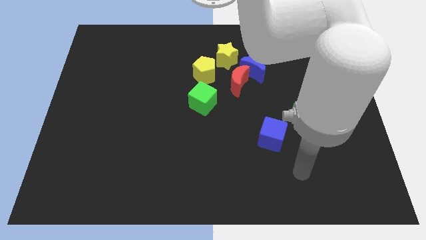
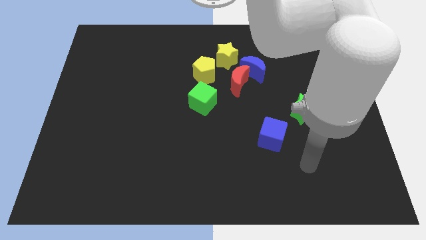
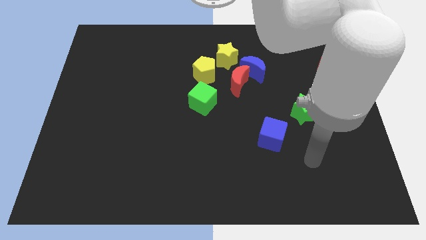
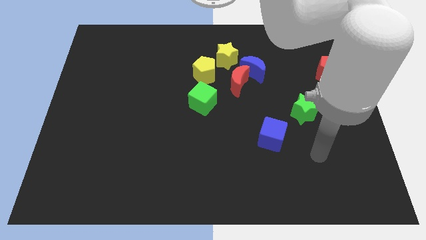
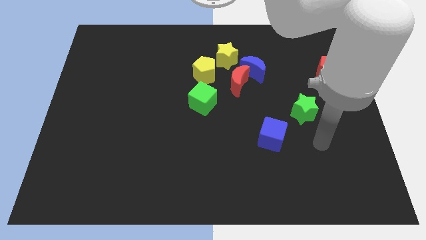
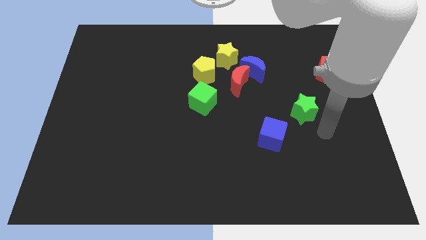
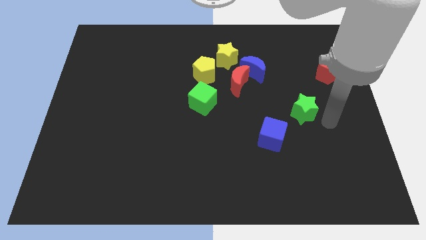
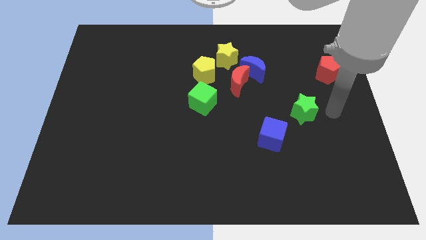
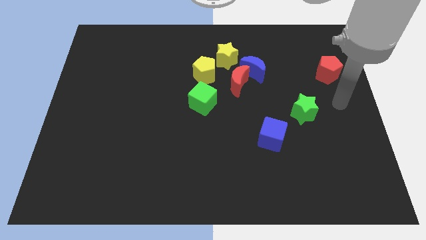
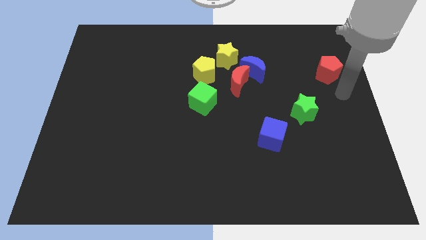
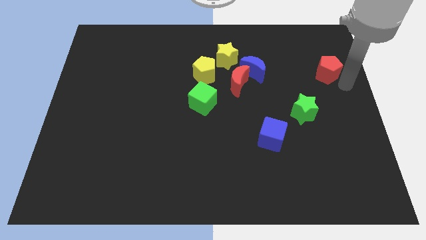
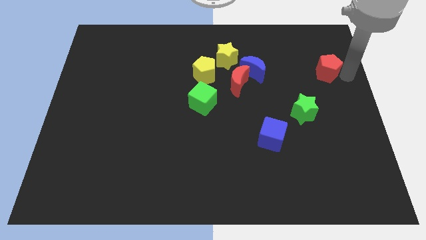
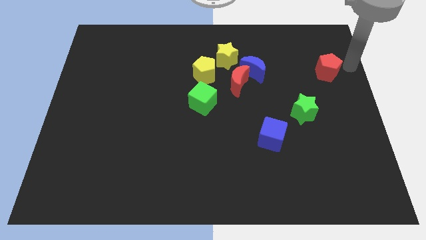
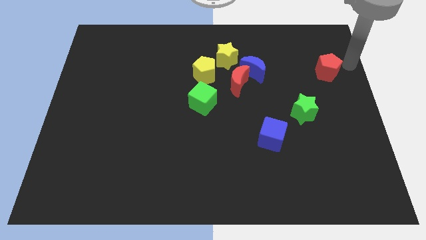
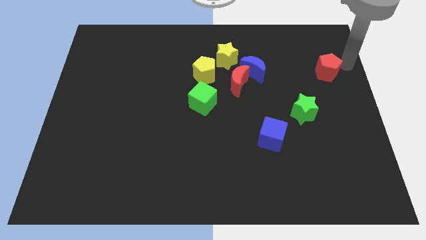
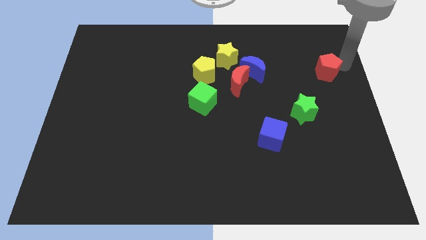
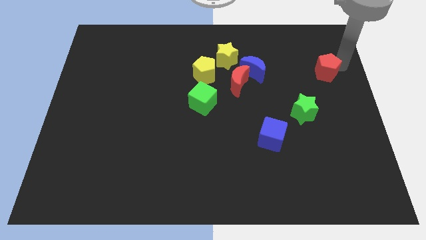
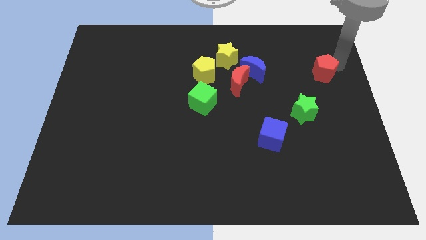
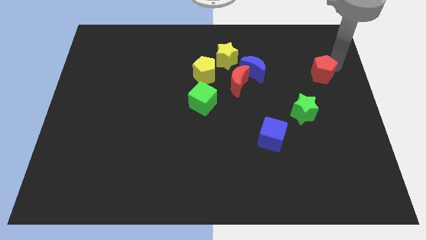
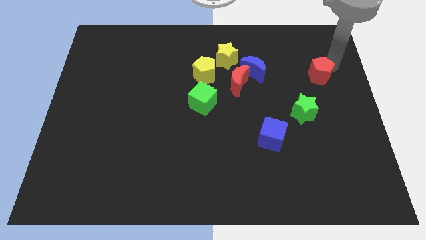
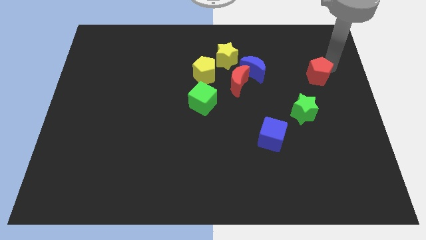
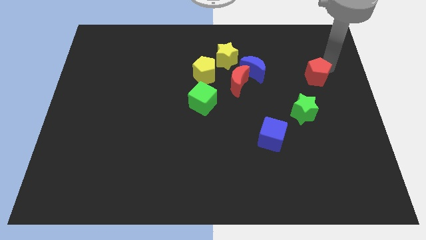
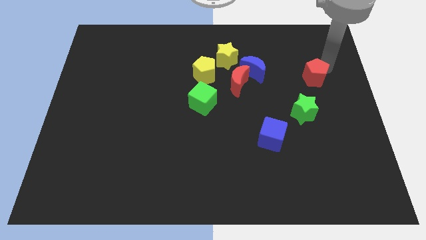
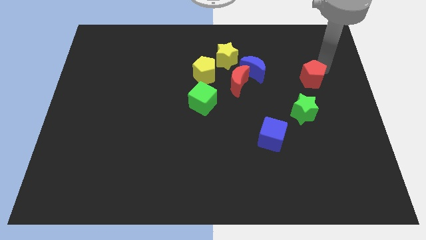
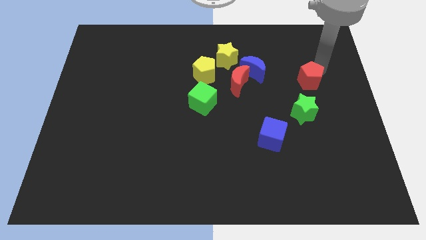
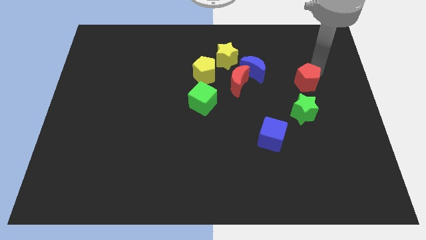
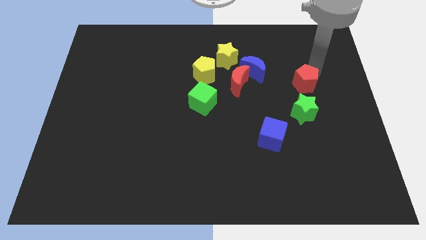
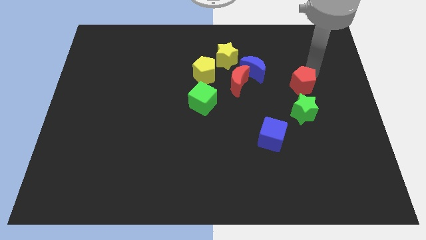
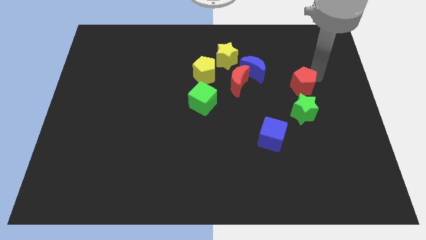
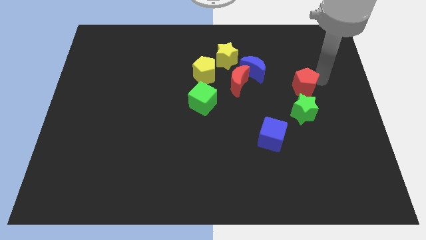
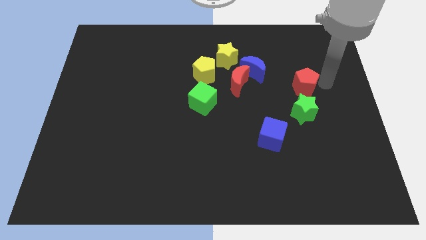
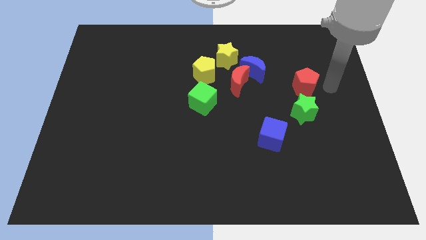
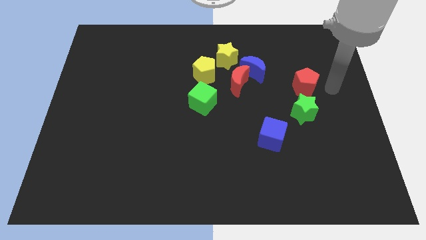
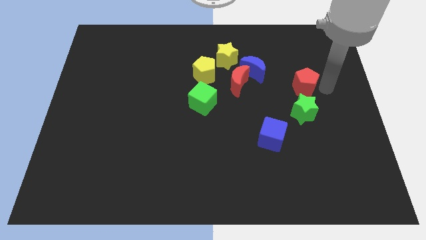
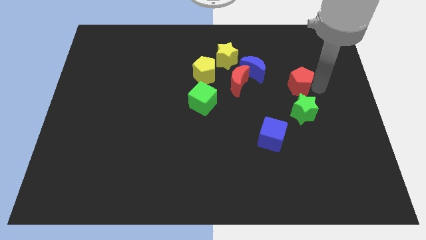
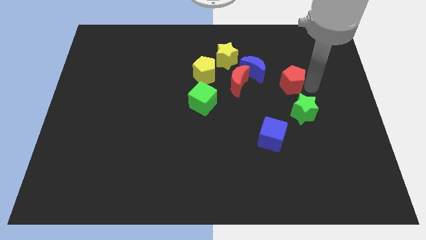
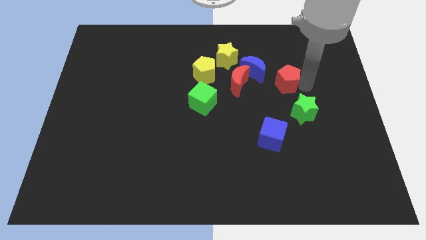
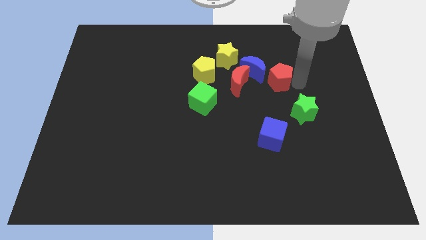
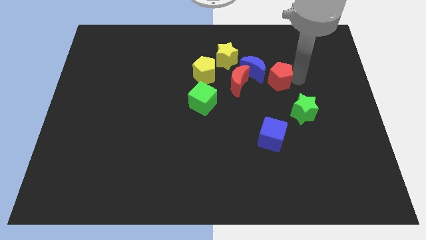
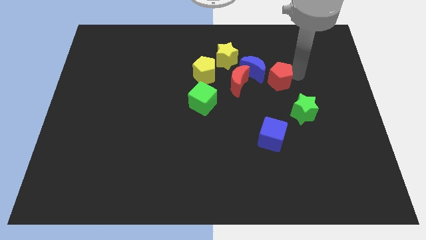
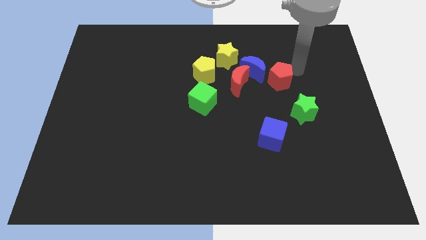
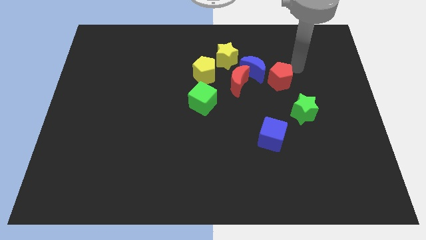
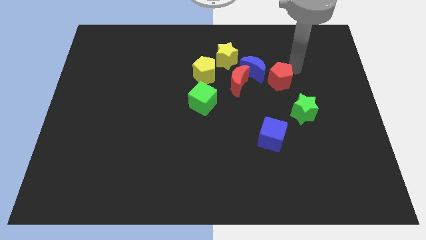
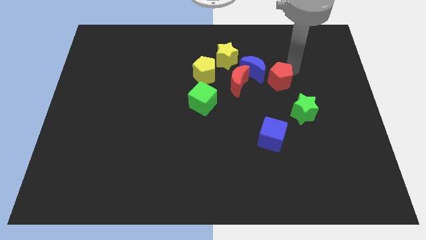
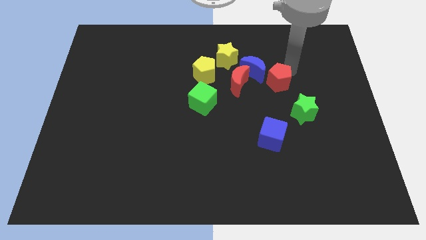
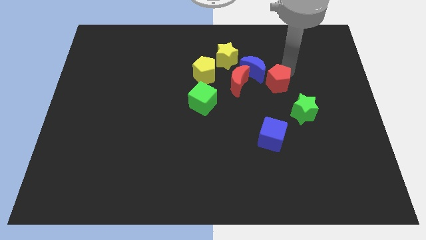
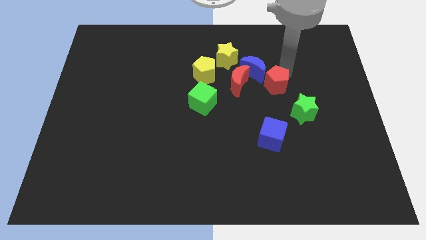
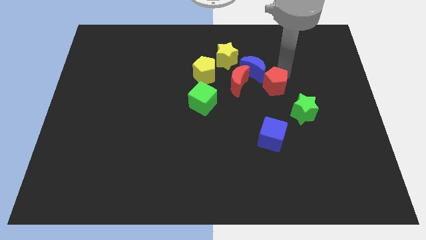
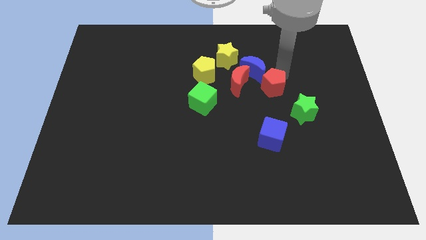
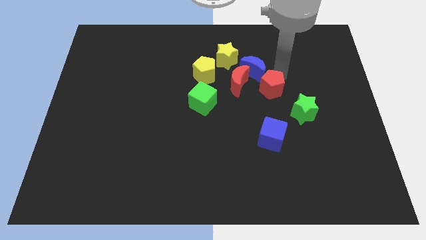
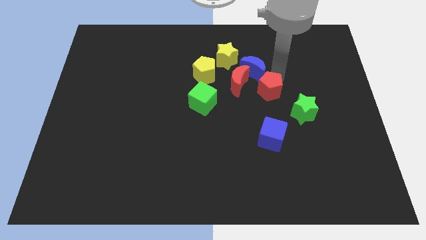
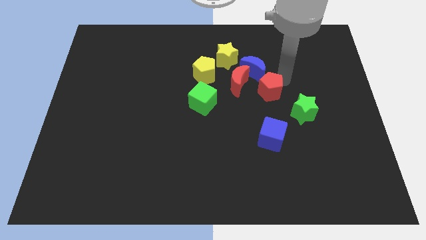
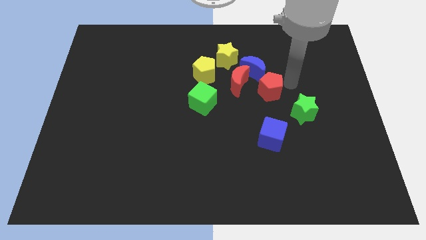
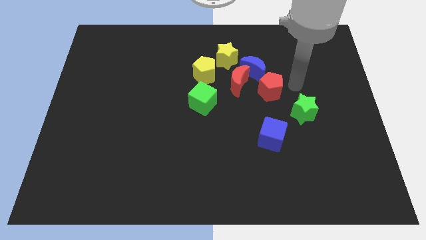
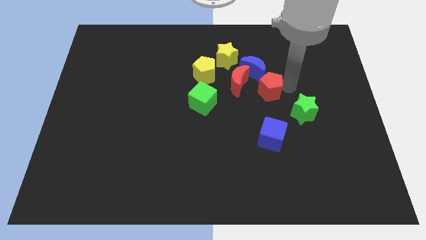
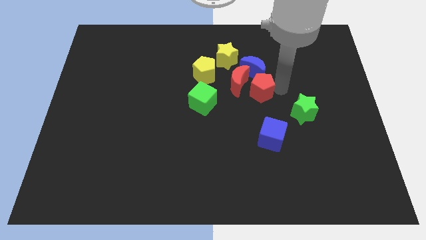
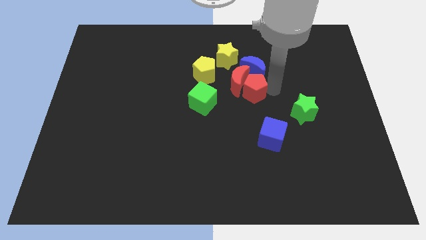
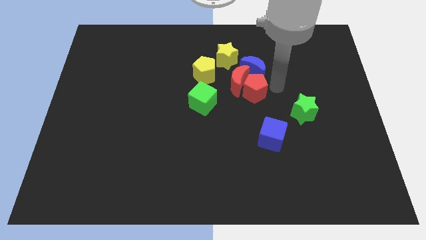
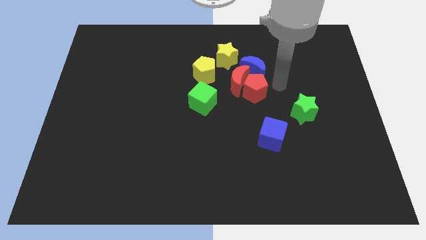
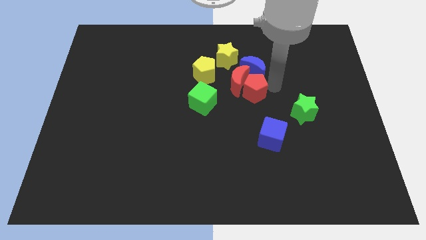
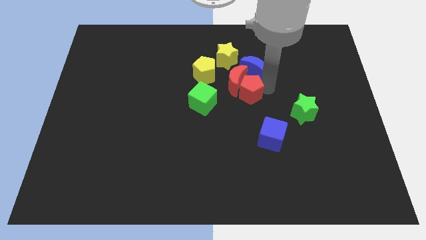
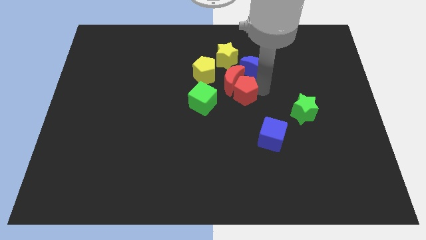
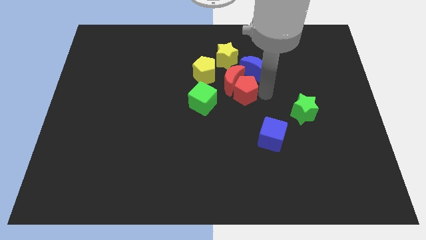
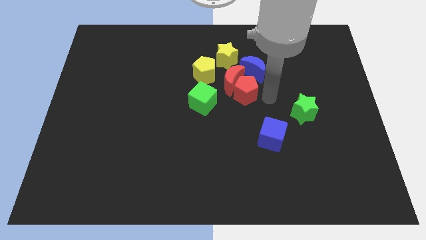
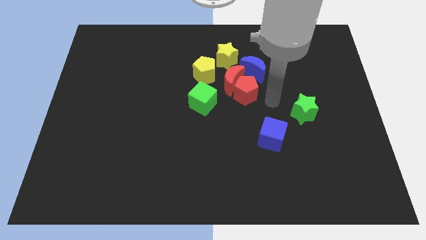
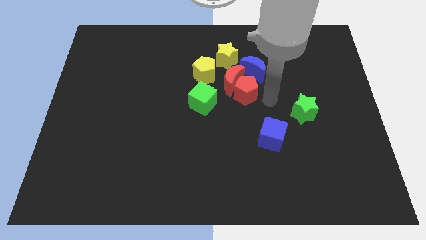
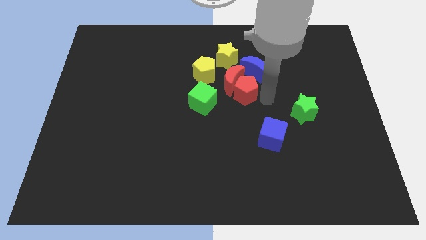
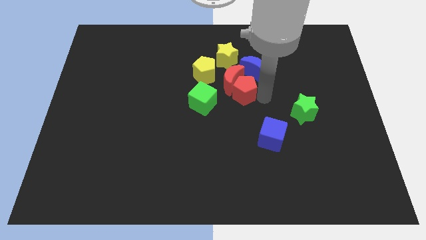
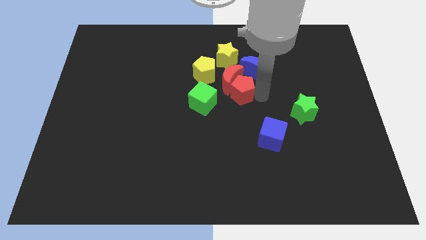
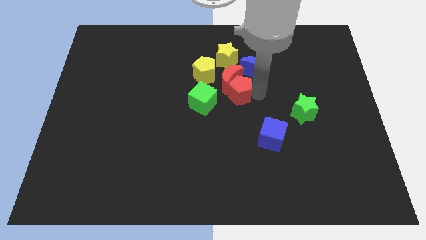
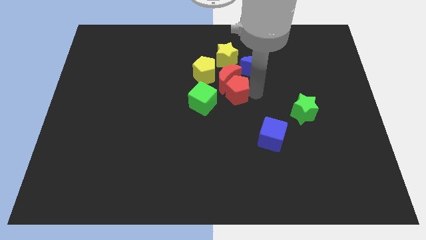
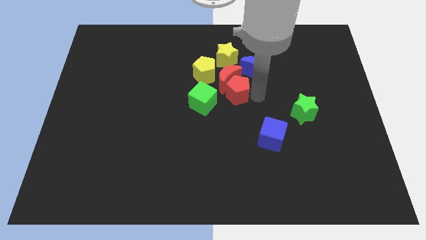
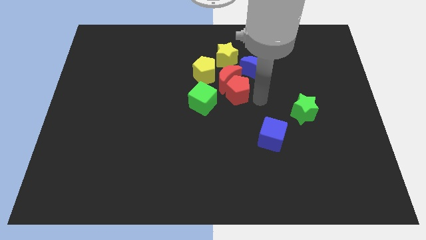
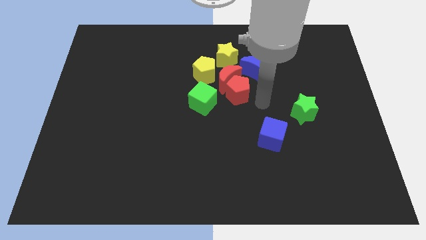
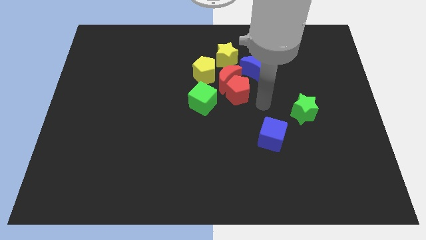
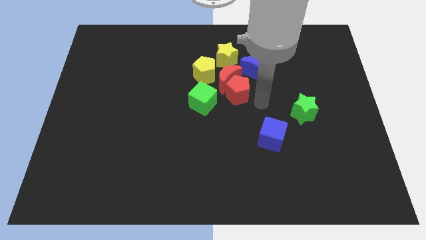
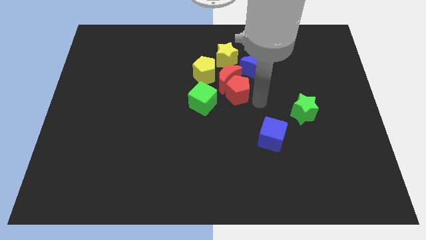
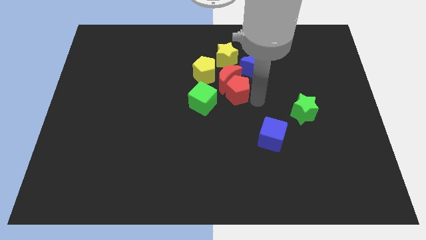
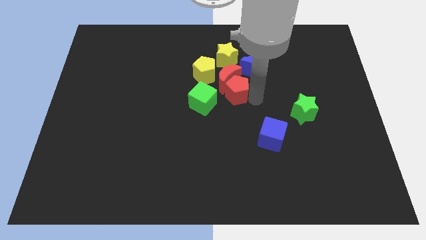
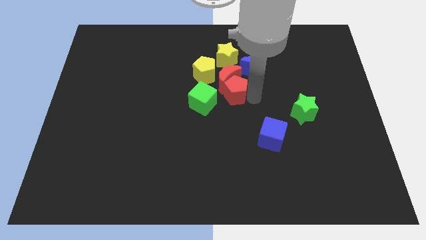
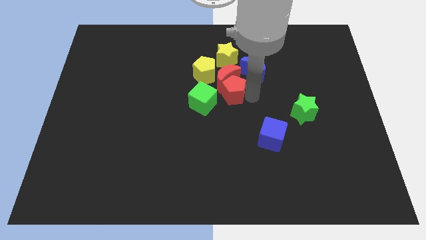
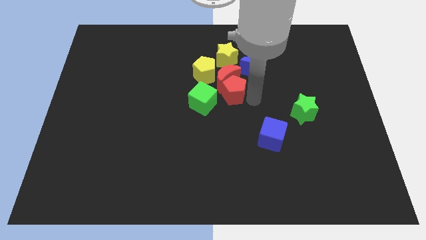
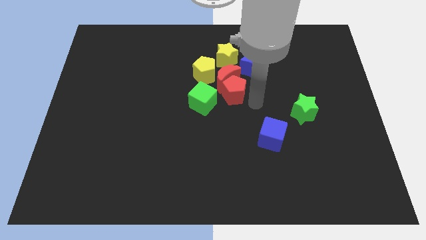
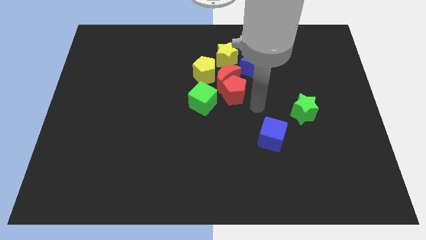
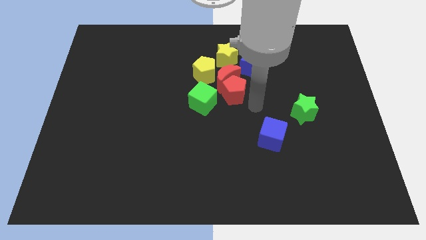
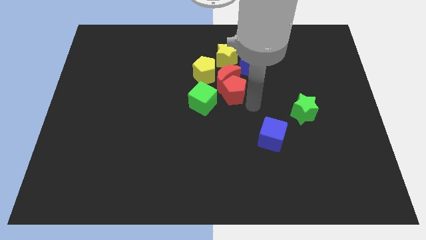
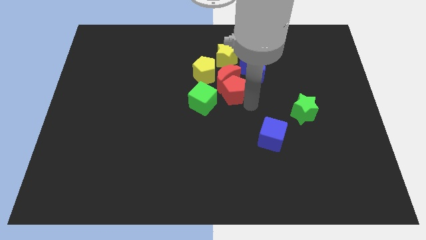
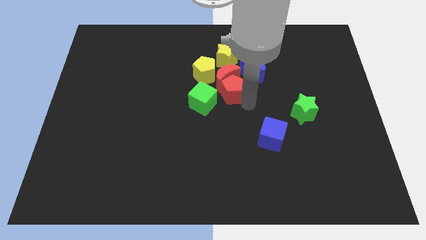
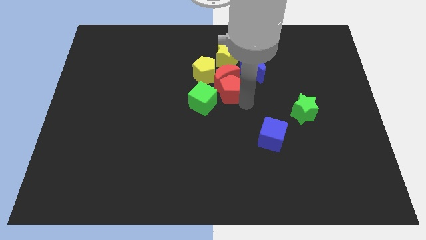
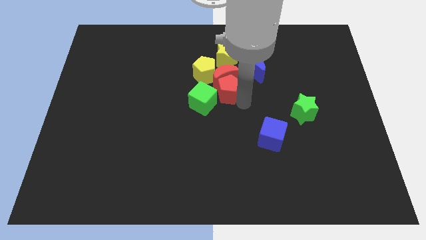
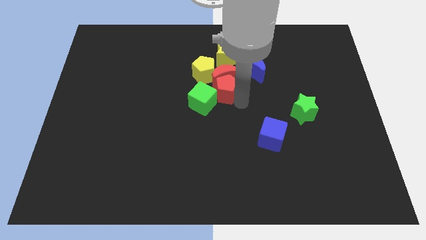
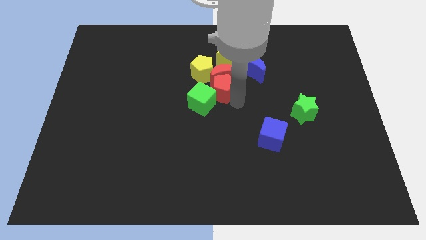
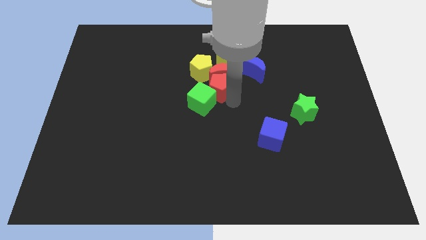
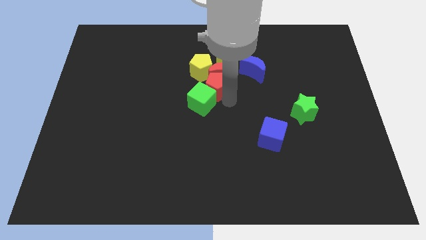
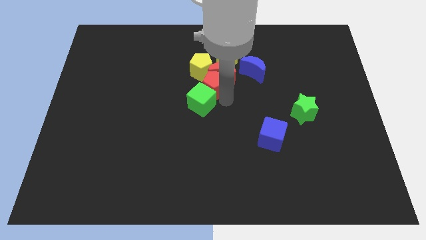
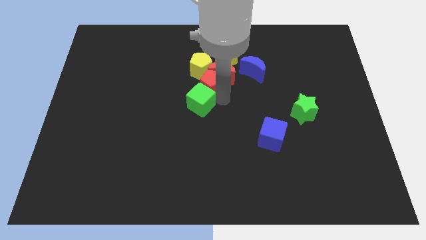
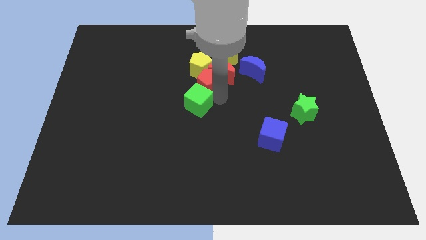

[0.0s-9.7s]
push the red pentagon close to the yellow pentagon
